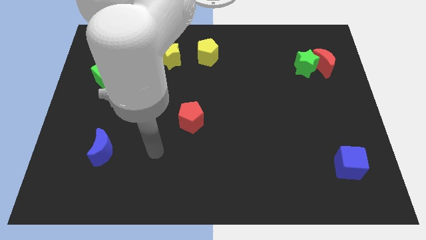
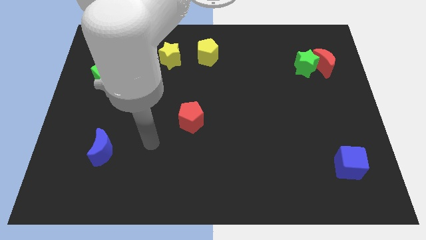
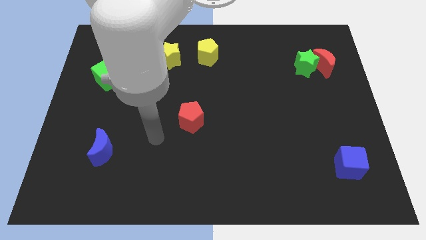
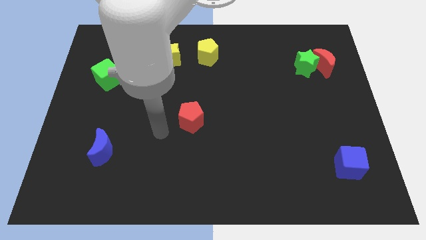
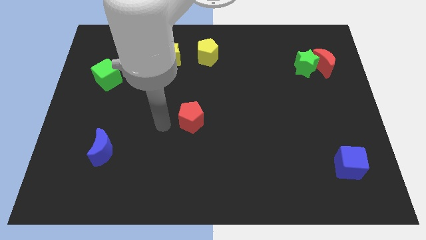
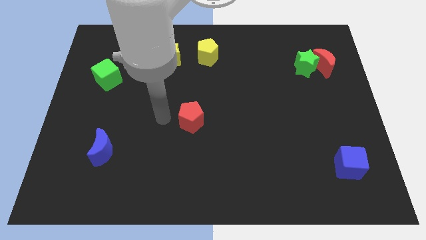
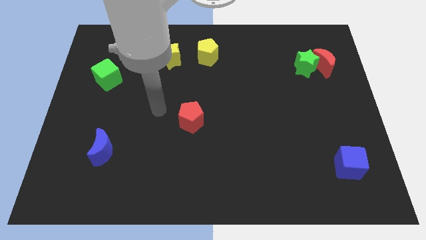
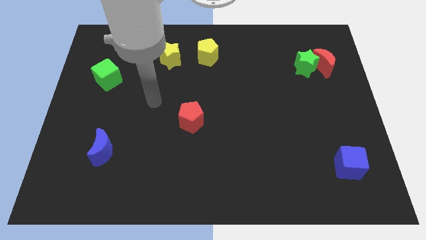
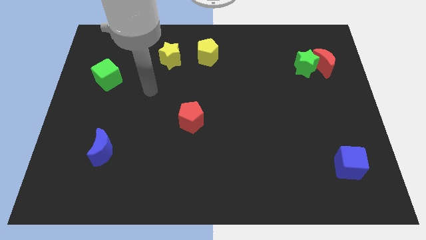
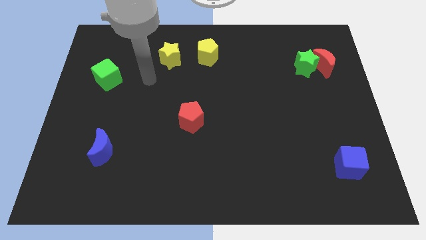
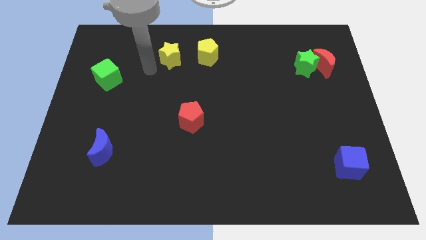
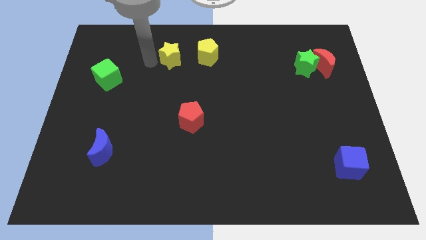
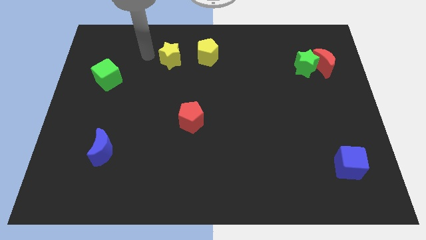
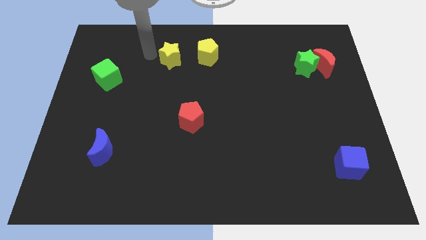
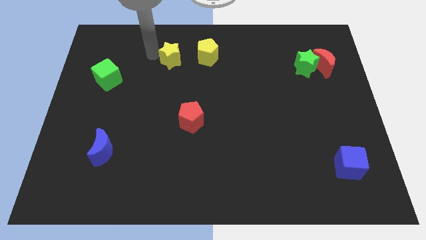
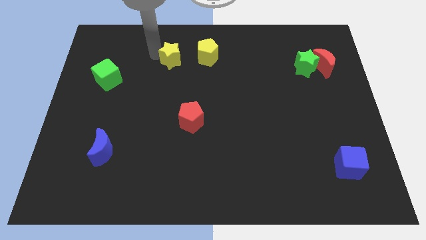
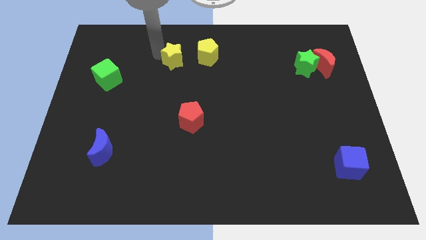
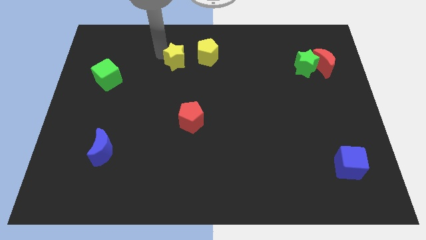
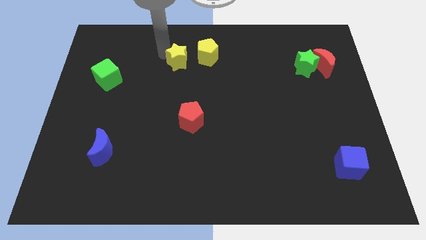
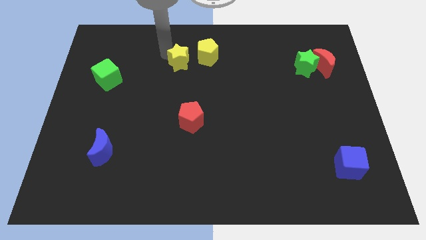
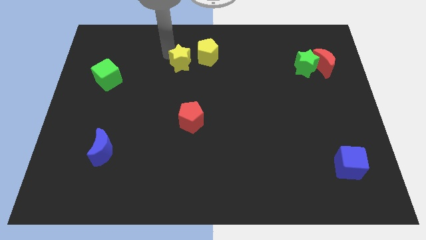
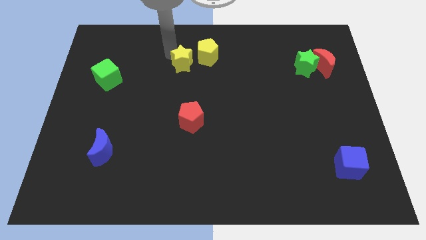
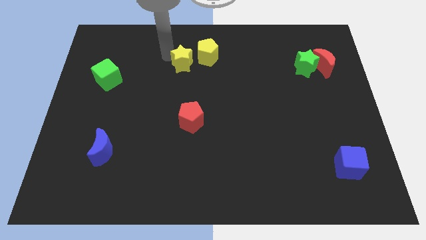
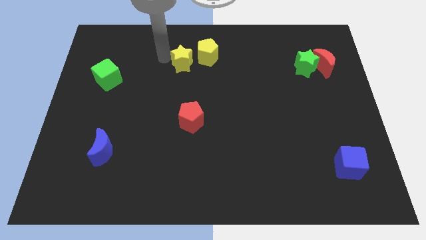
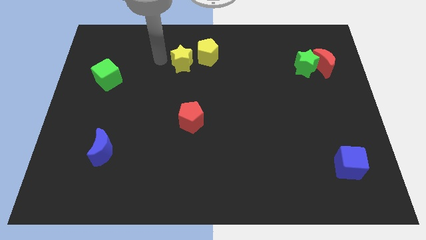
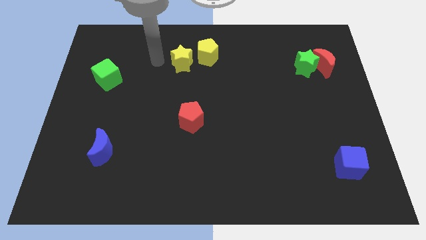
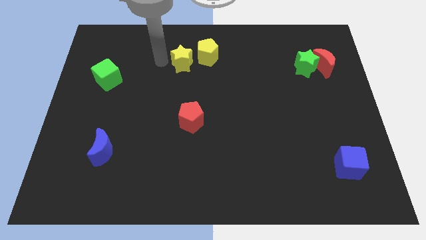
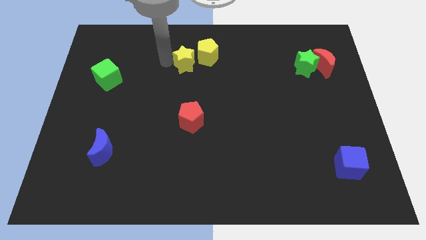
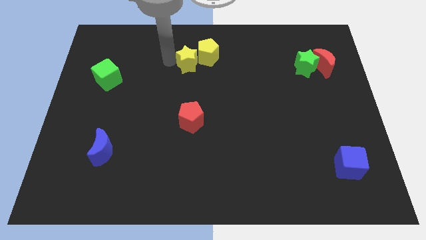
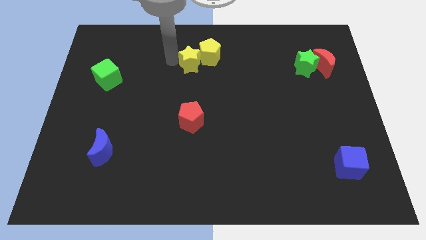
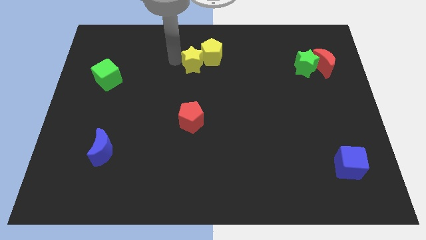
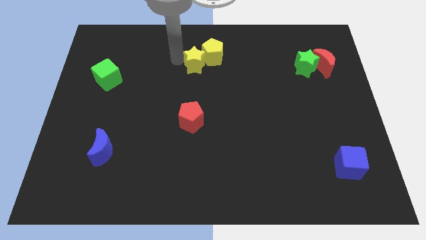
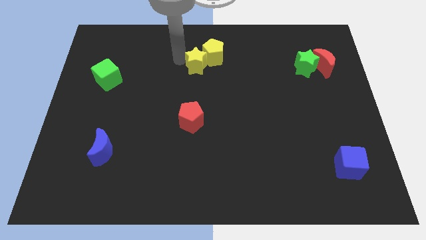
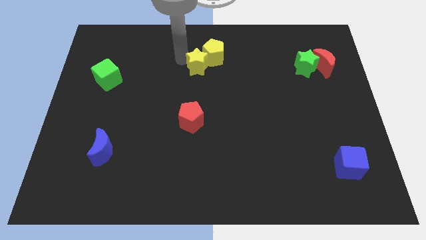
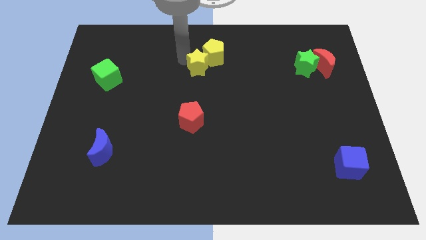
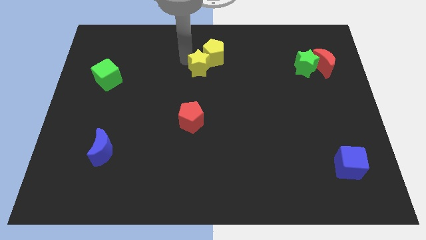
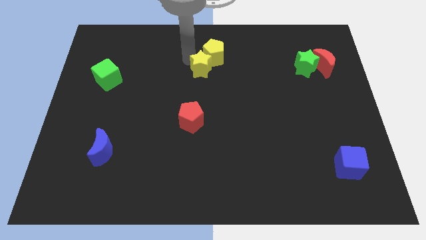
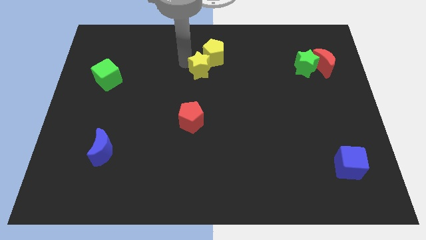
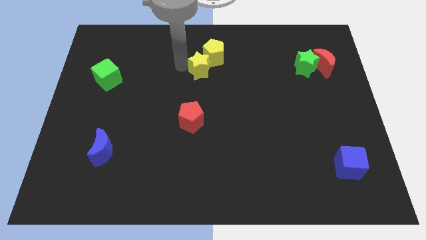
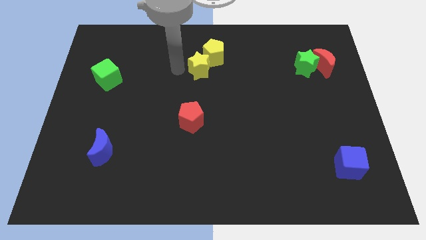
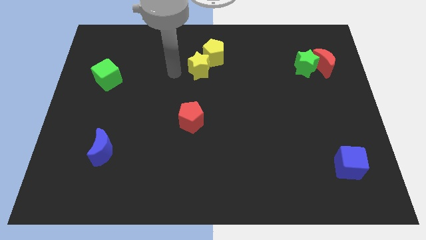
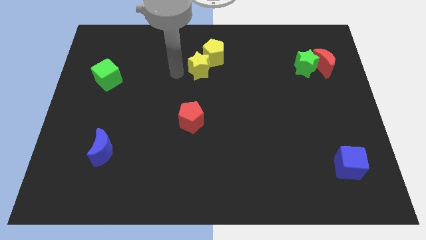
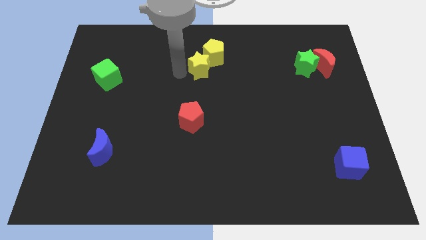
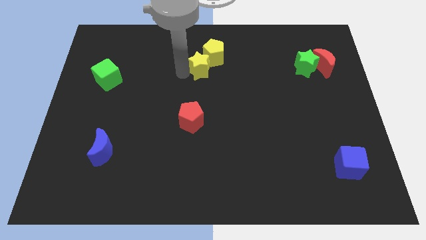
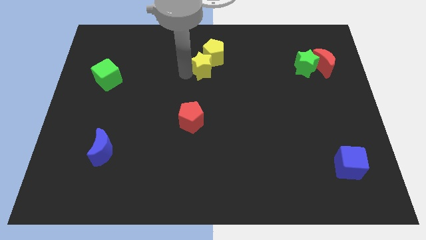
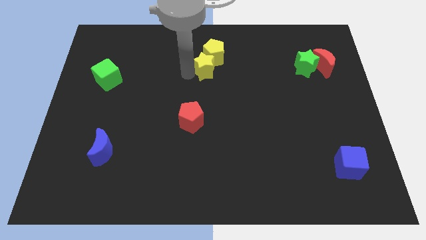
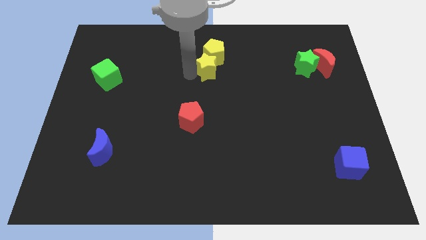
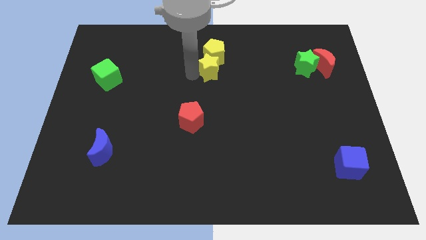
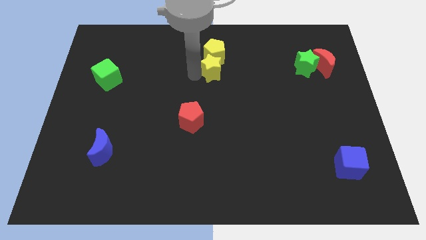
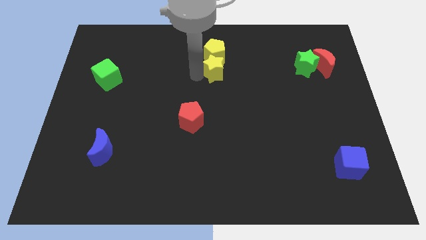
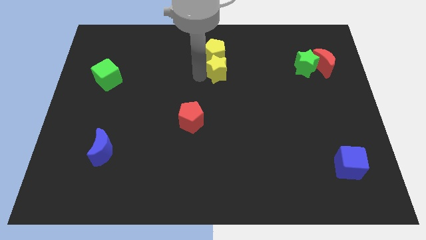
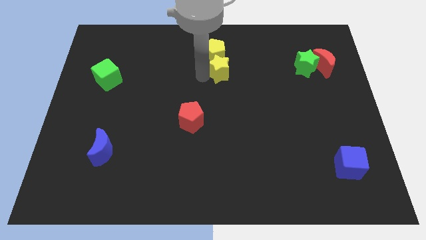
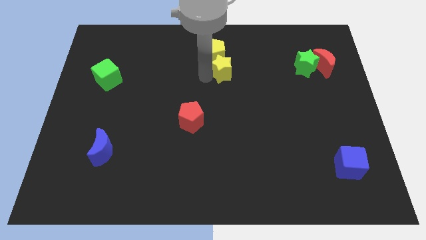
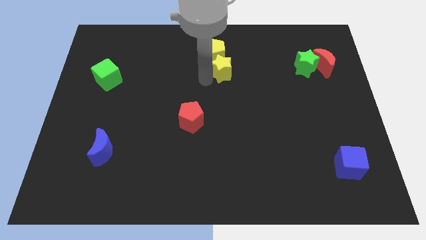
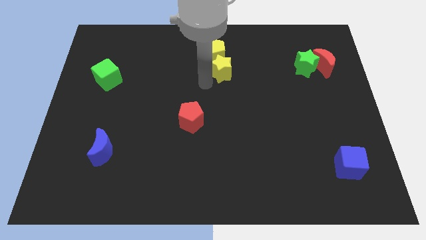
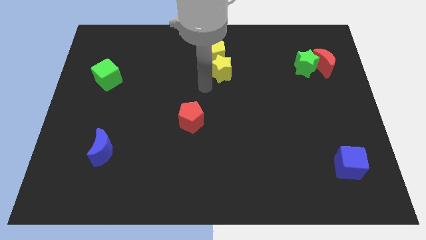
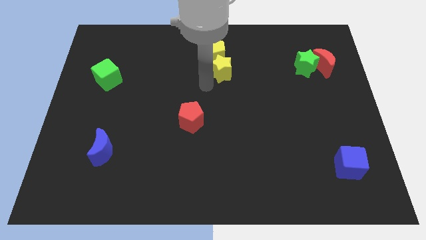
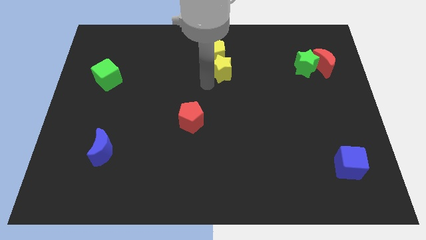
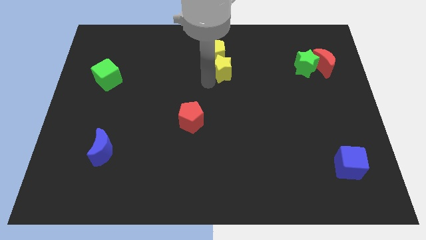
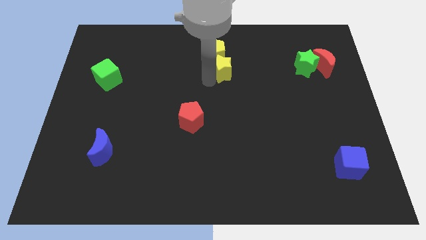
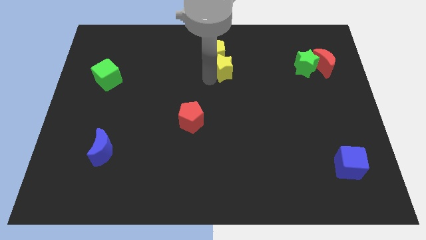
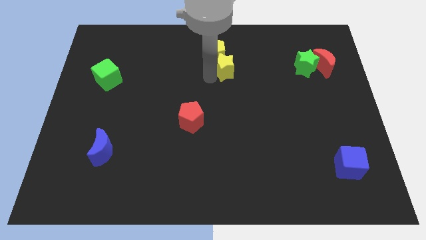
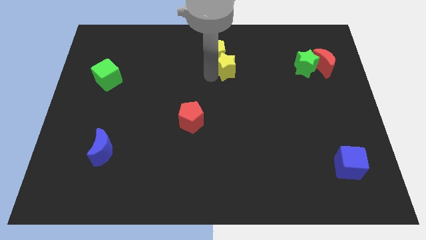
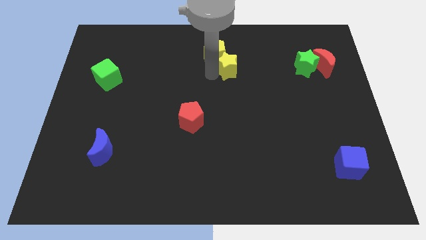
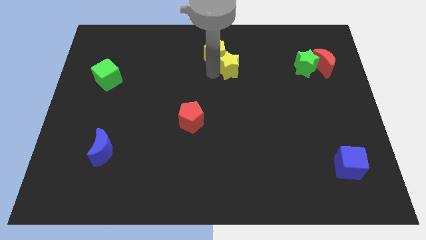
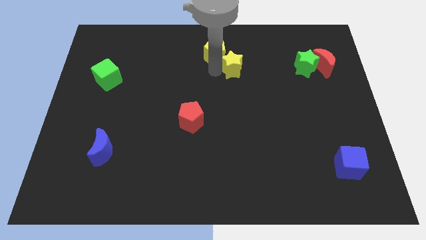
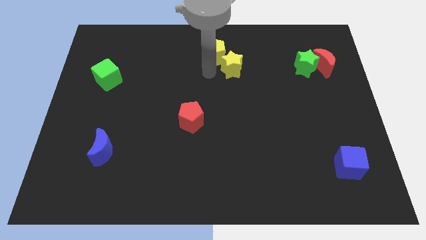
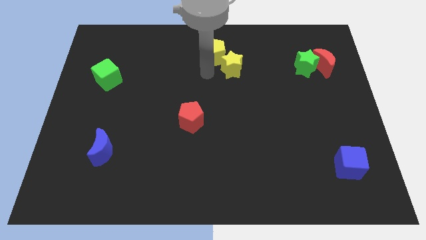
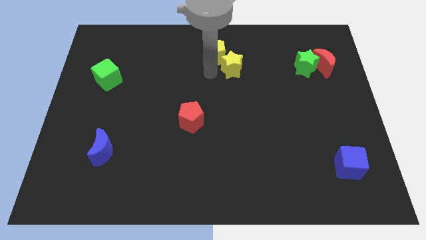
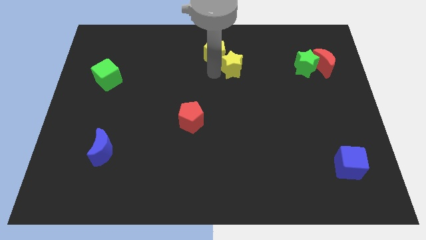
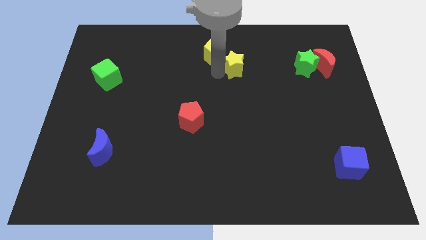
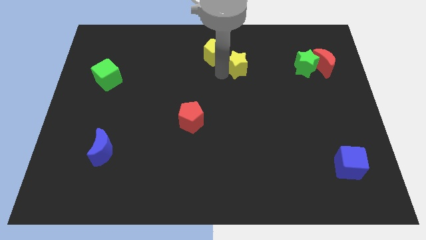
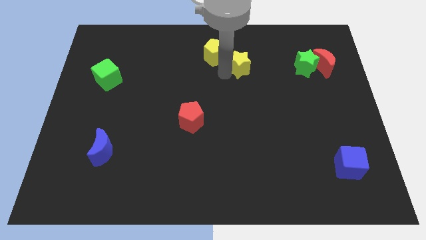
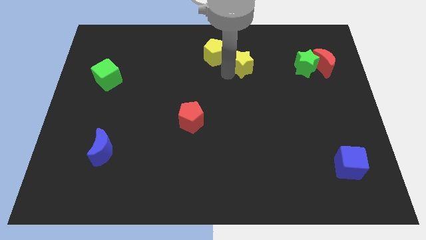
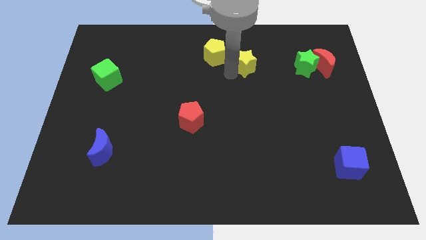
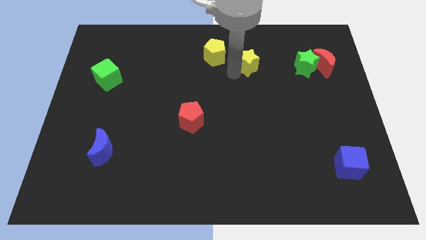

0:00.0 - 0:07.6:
slide the yellow star to the right

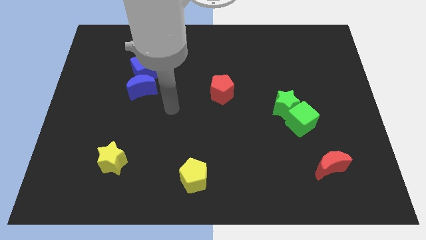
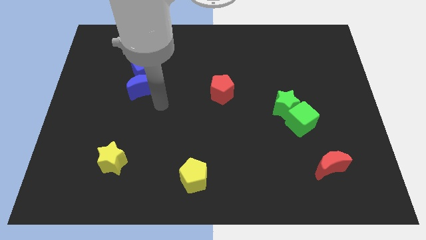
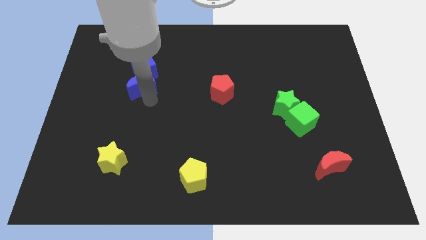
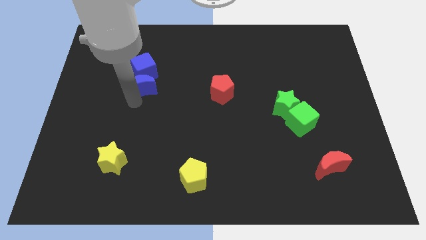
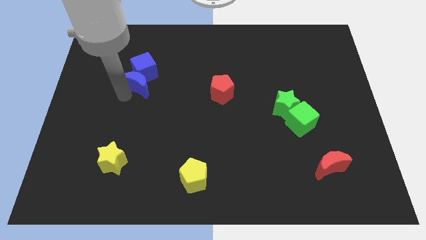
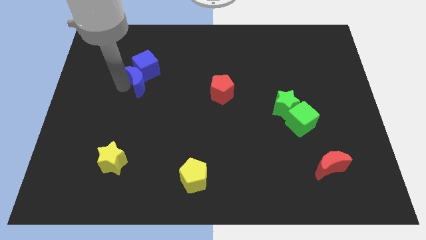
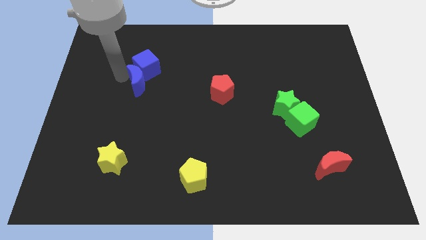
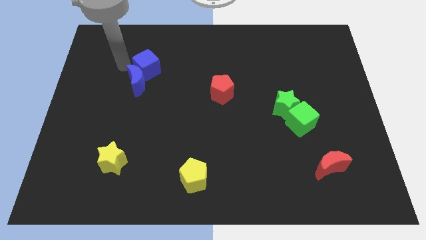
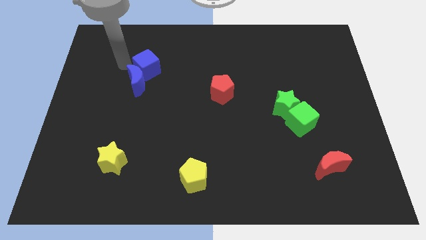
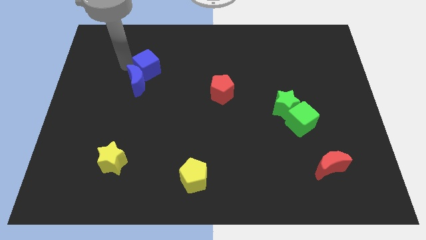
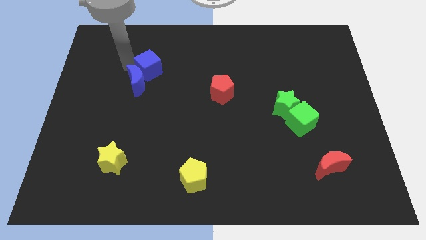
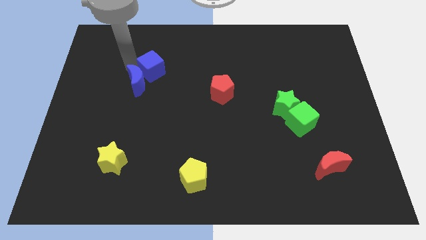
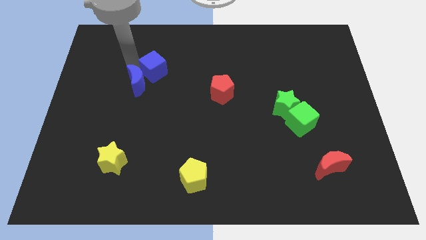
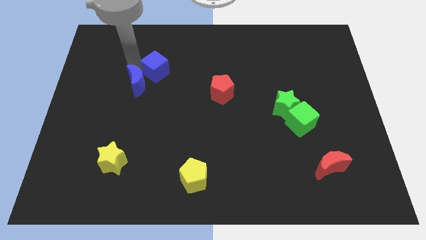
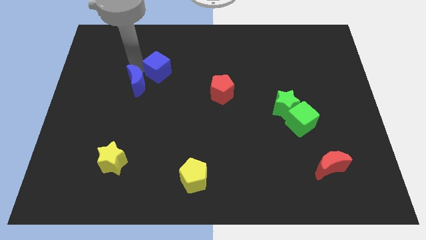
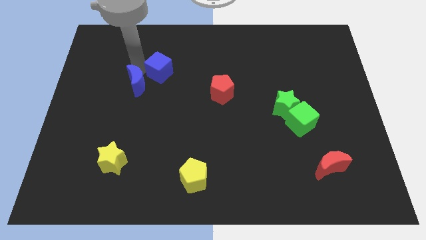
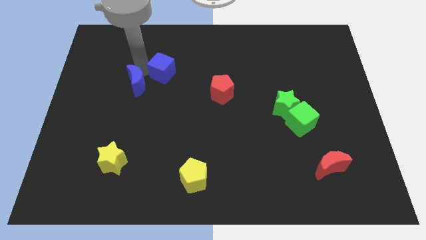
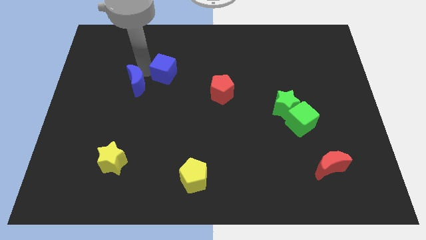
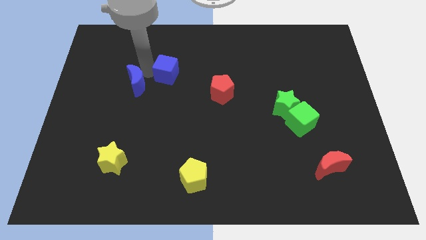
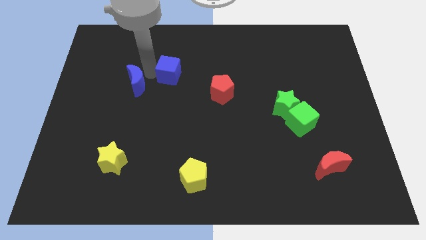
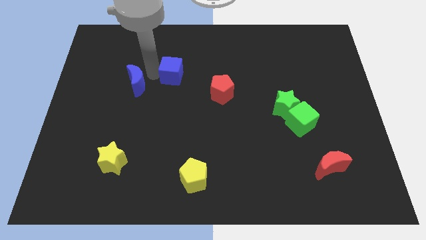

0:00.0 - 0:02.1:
slightly slide the blue cube to the right
